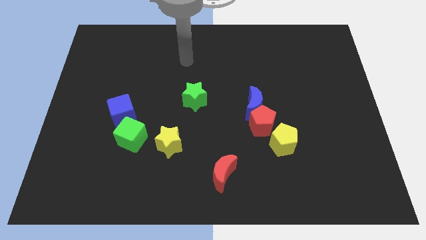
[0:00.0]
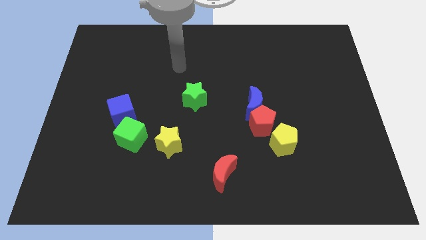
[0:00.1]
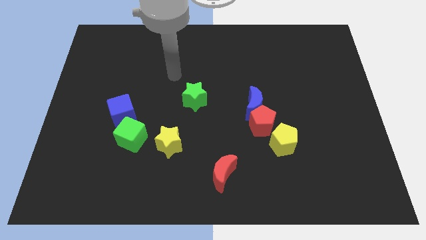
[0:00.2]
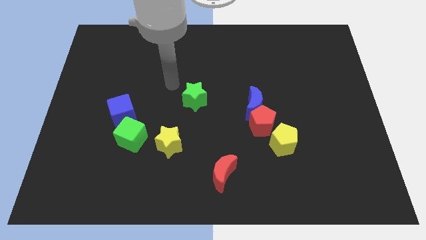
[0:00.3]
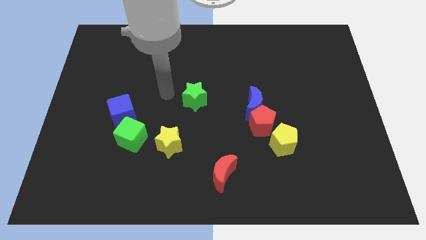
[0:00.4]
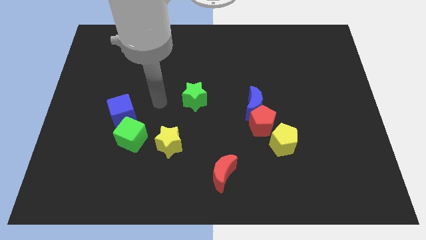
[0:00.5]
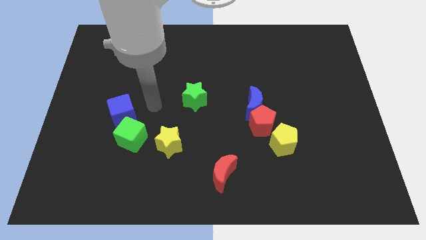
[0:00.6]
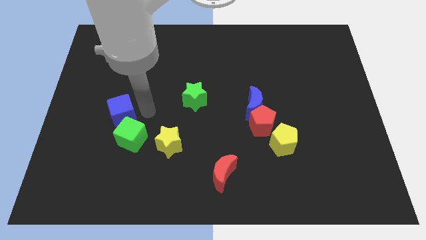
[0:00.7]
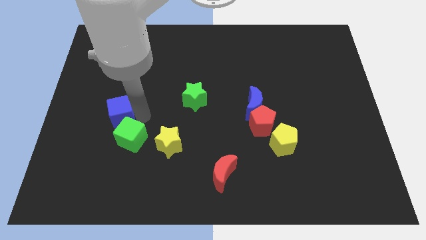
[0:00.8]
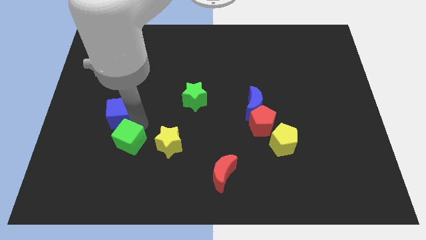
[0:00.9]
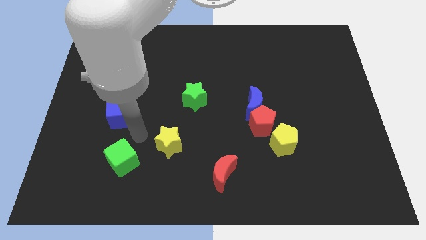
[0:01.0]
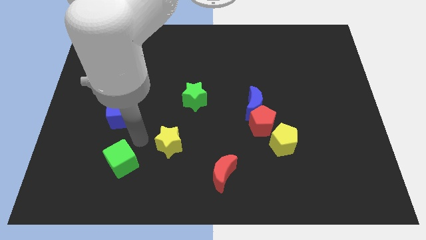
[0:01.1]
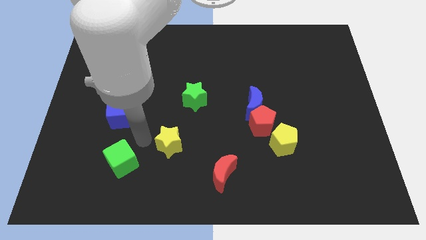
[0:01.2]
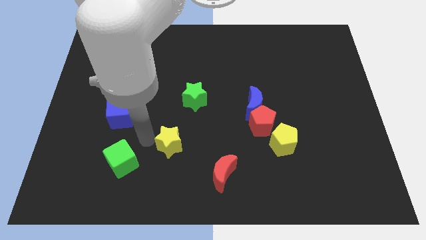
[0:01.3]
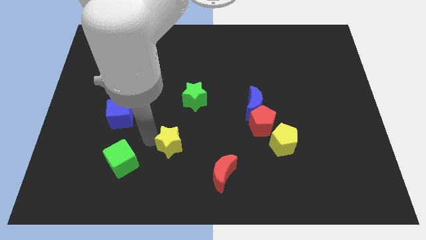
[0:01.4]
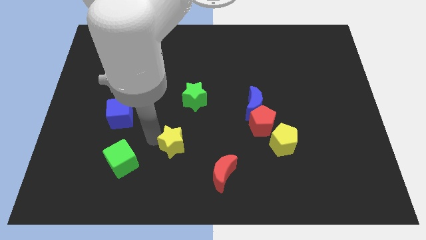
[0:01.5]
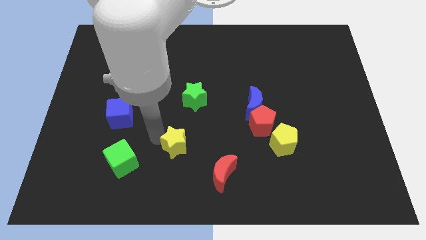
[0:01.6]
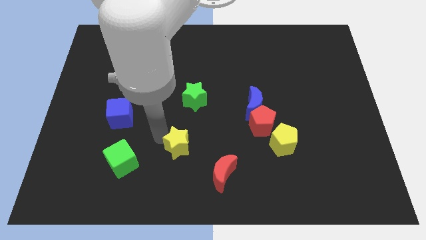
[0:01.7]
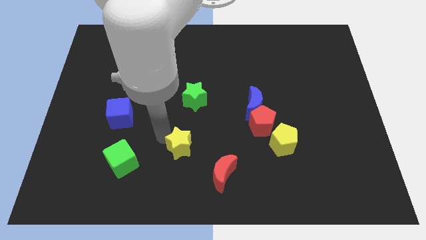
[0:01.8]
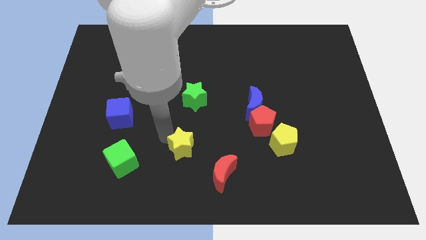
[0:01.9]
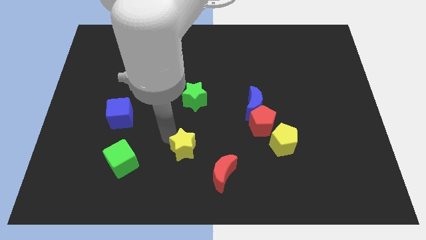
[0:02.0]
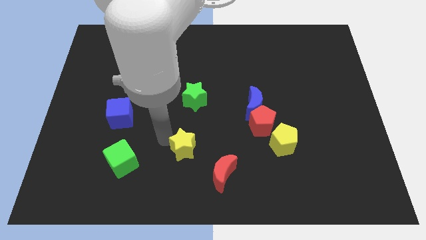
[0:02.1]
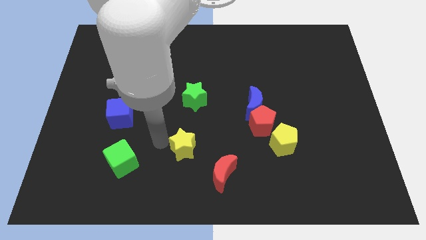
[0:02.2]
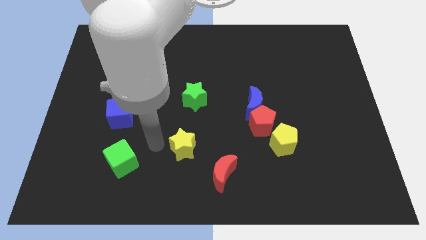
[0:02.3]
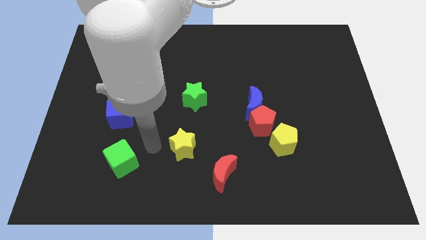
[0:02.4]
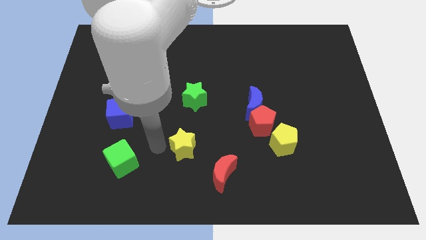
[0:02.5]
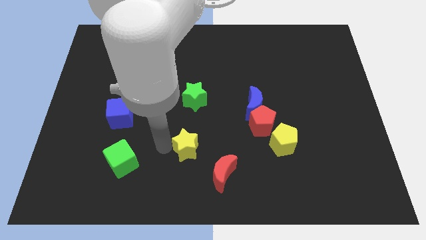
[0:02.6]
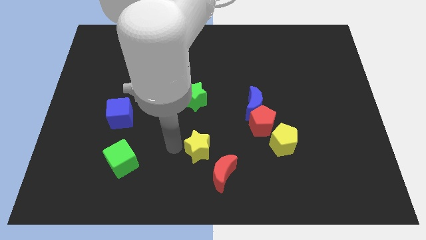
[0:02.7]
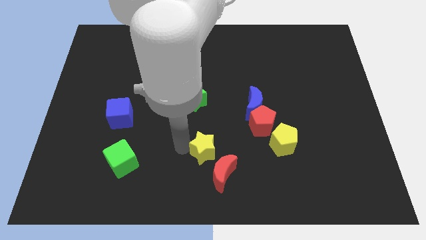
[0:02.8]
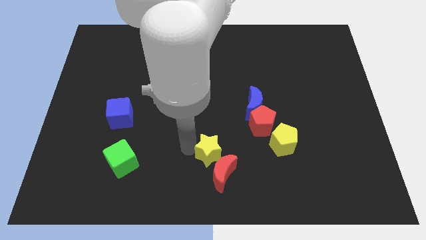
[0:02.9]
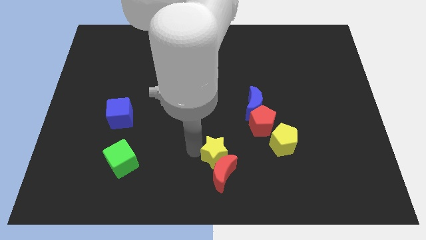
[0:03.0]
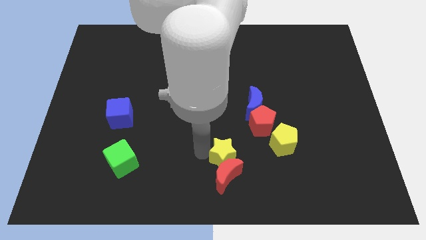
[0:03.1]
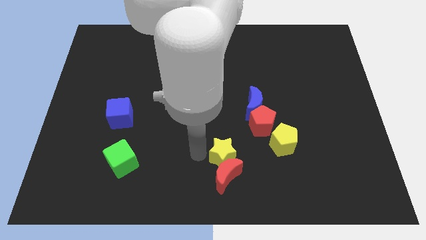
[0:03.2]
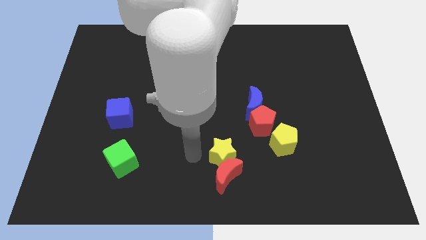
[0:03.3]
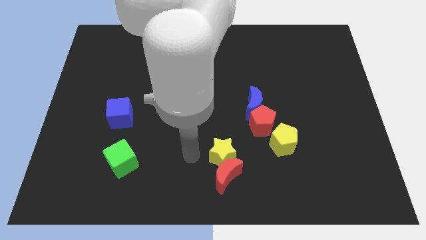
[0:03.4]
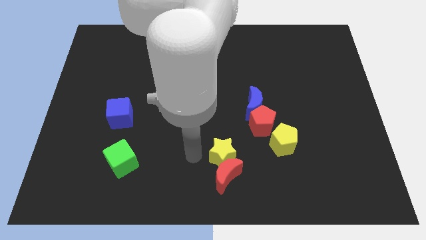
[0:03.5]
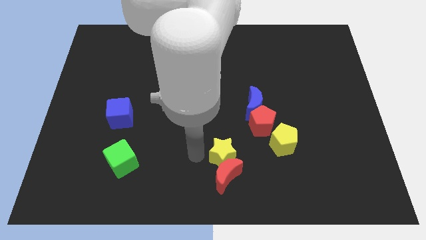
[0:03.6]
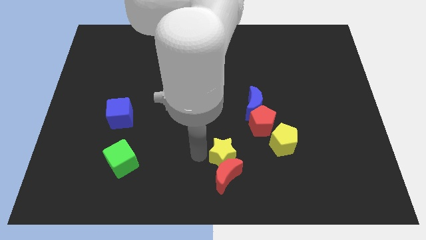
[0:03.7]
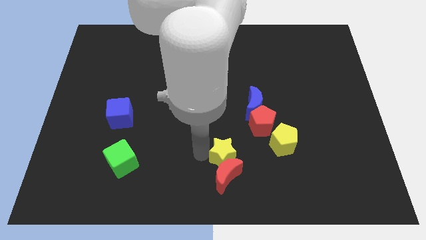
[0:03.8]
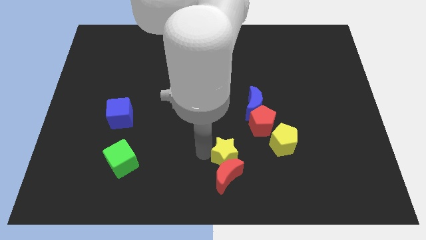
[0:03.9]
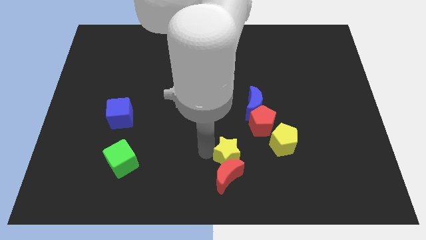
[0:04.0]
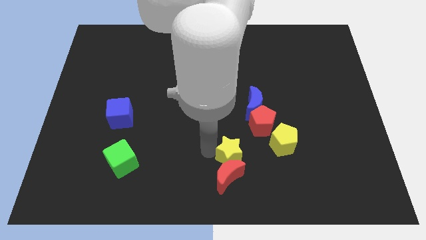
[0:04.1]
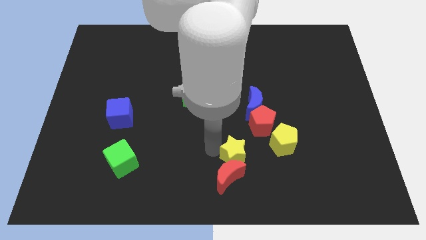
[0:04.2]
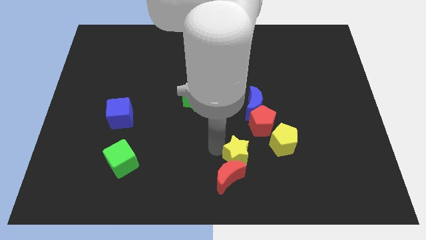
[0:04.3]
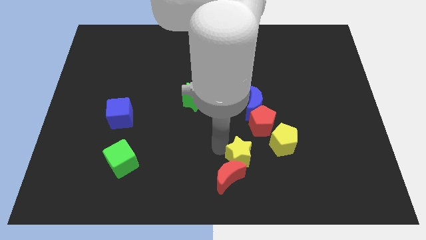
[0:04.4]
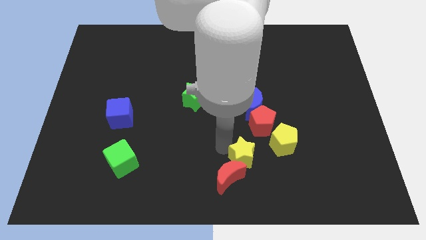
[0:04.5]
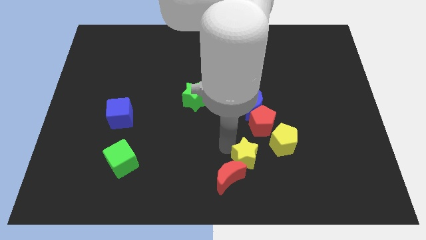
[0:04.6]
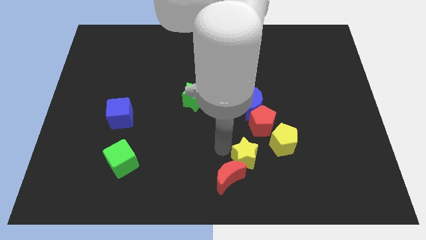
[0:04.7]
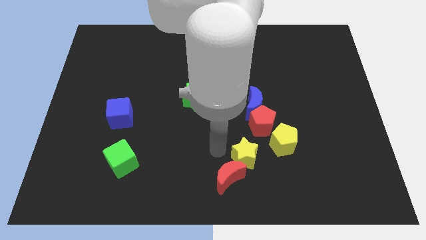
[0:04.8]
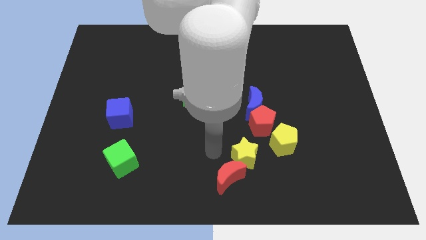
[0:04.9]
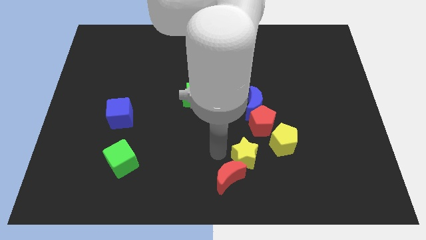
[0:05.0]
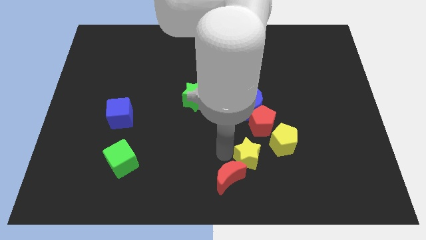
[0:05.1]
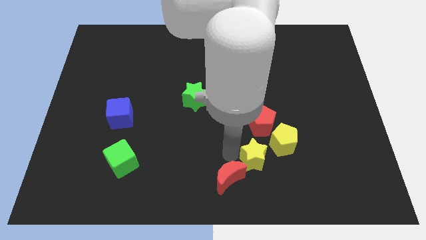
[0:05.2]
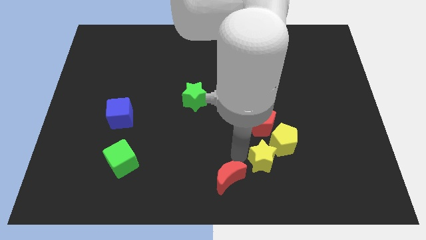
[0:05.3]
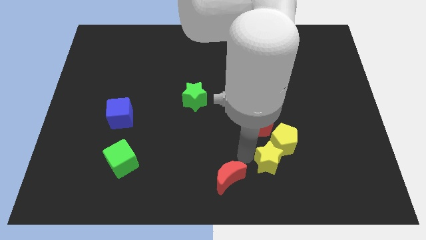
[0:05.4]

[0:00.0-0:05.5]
move the yellow star to the right

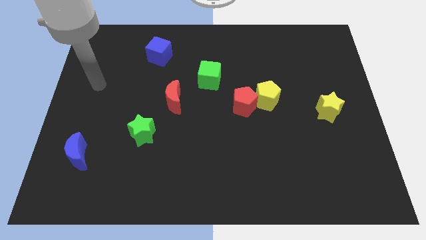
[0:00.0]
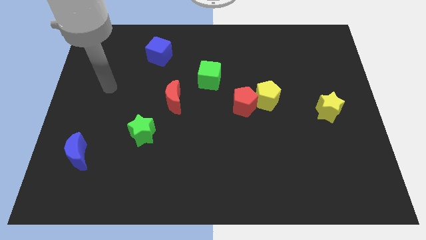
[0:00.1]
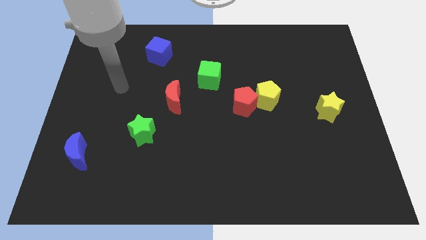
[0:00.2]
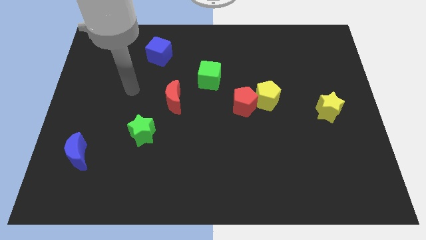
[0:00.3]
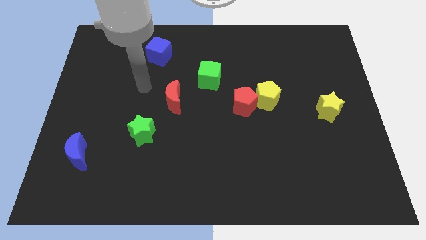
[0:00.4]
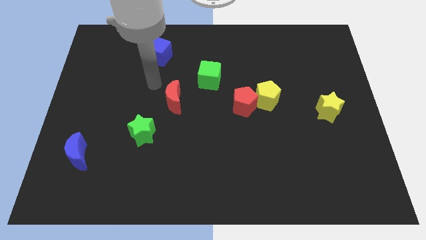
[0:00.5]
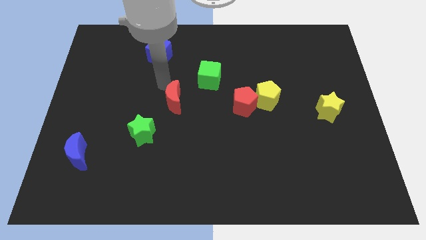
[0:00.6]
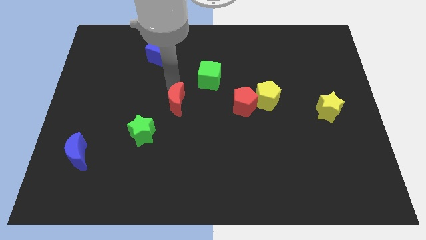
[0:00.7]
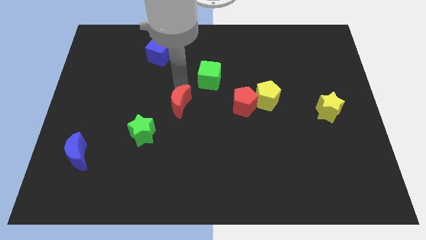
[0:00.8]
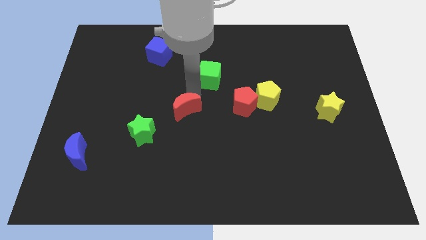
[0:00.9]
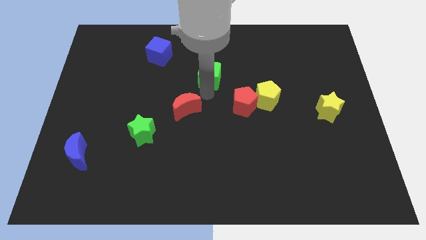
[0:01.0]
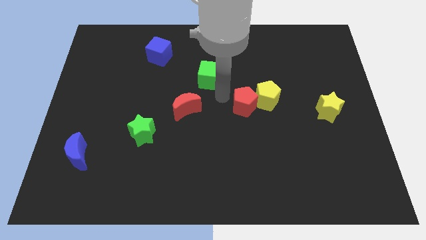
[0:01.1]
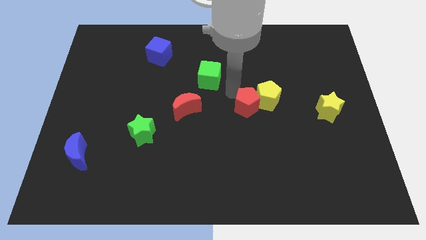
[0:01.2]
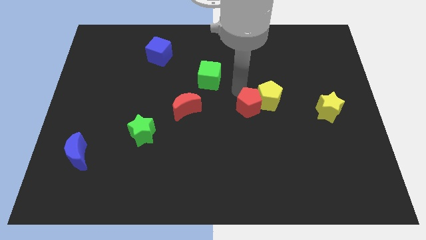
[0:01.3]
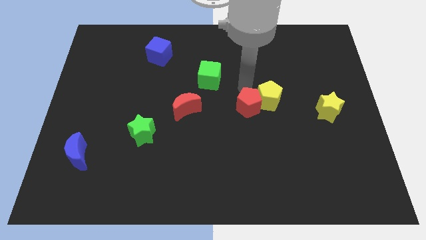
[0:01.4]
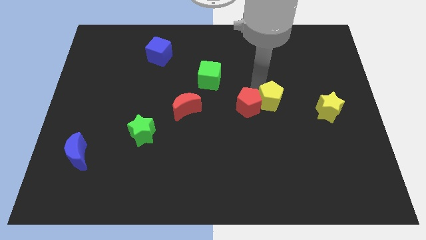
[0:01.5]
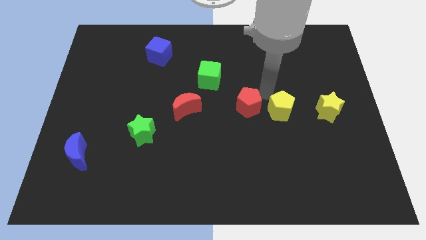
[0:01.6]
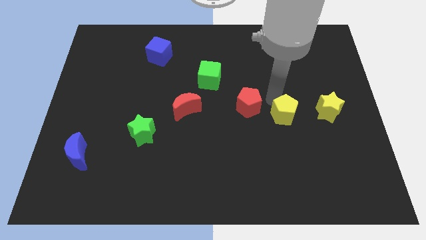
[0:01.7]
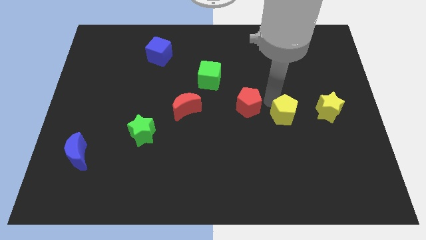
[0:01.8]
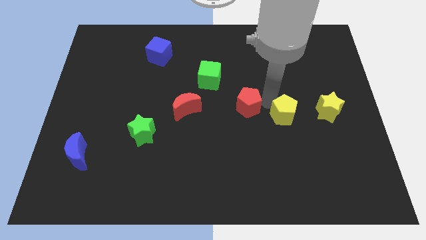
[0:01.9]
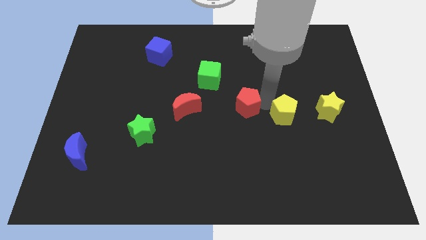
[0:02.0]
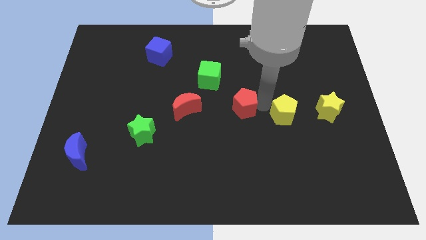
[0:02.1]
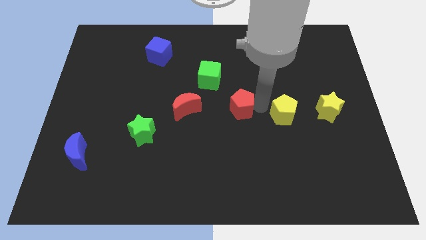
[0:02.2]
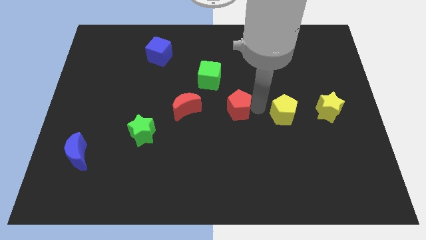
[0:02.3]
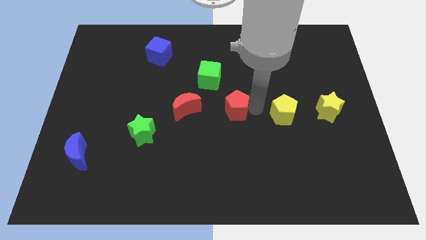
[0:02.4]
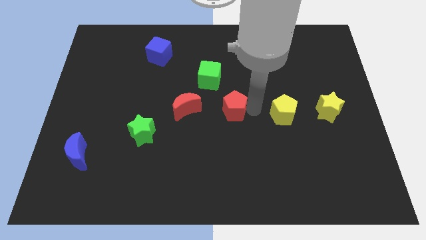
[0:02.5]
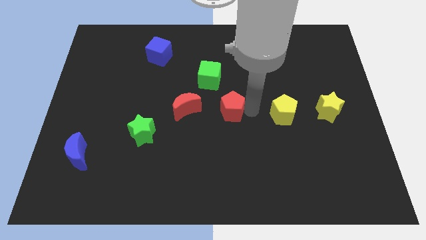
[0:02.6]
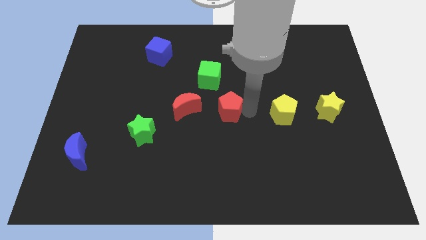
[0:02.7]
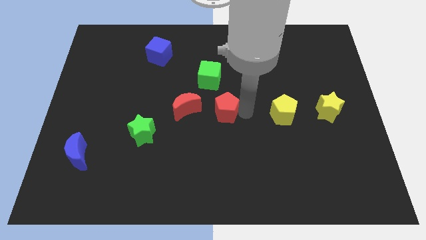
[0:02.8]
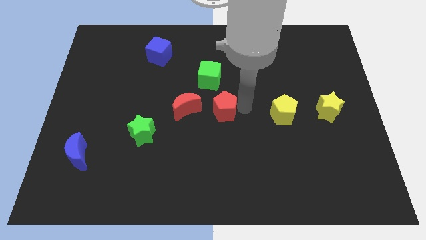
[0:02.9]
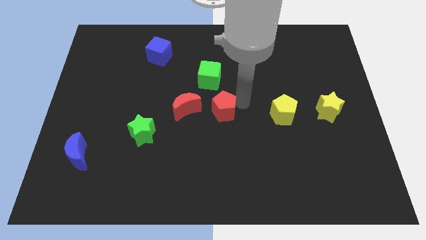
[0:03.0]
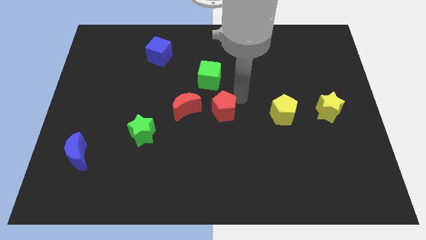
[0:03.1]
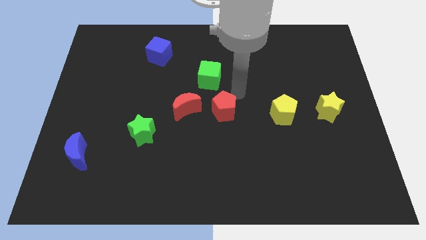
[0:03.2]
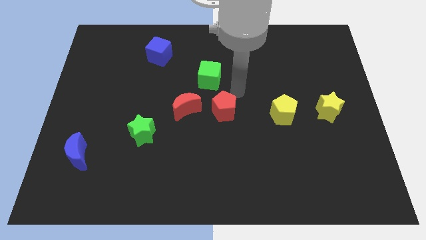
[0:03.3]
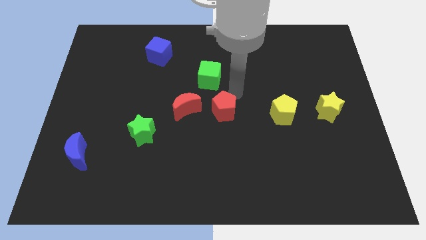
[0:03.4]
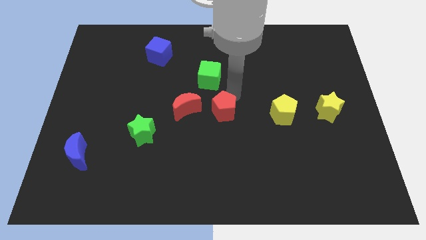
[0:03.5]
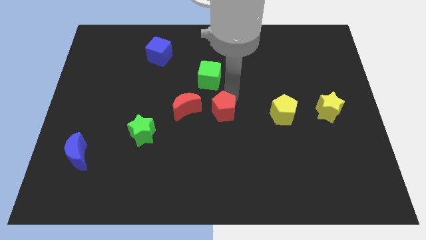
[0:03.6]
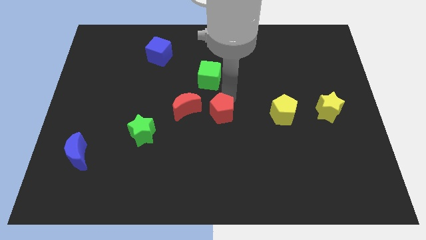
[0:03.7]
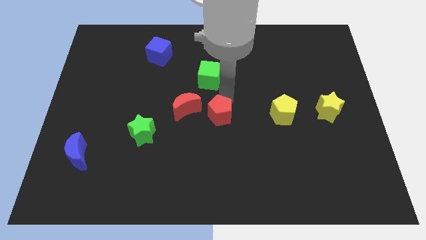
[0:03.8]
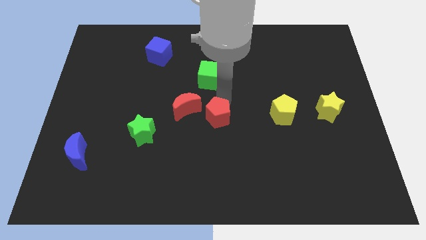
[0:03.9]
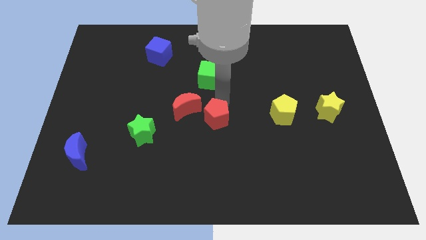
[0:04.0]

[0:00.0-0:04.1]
slide the red pentagon a bit downwards and then left
